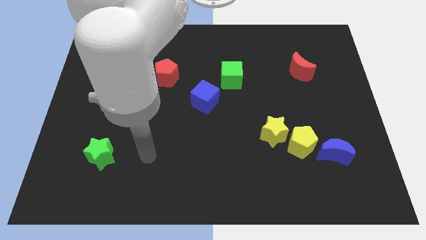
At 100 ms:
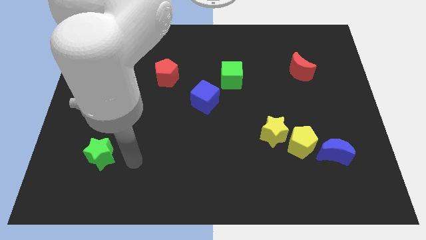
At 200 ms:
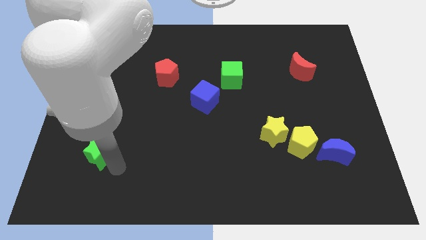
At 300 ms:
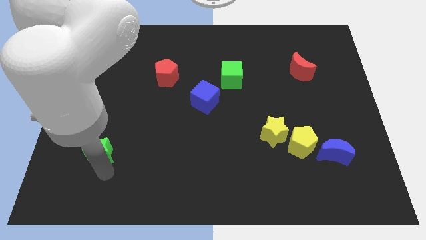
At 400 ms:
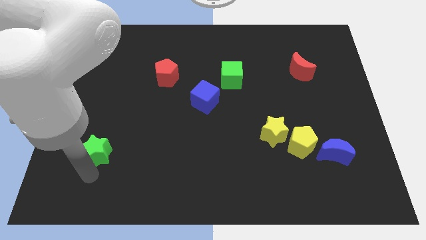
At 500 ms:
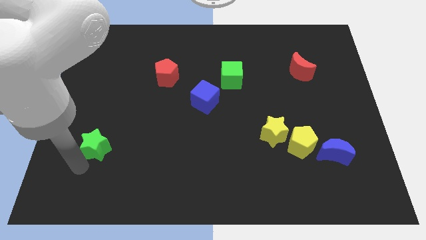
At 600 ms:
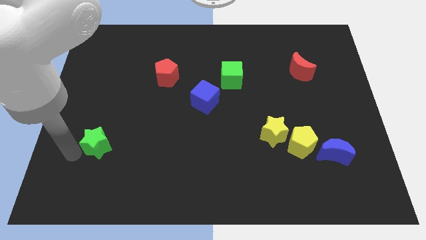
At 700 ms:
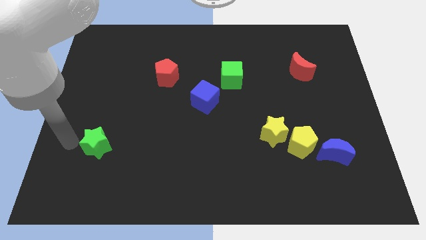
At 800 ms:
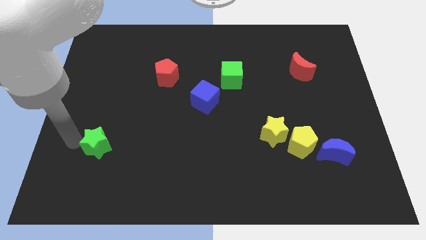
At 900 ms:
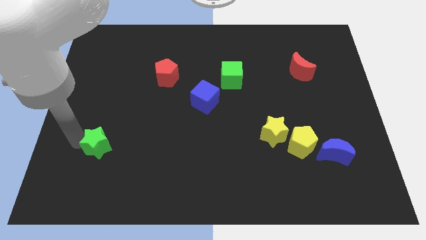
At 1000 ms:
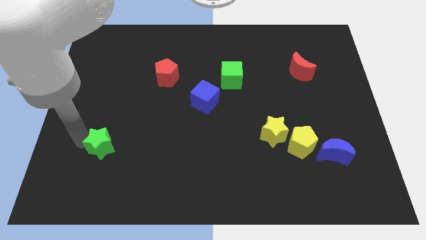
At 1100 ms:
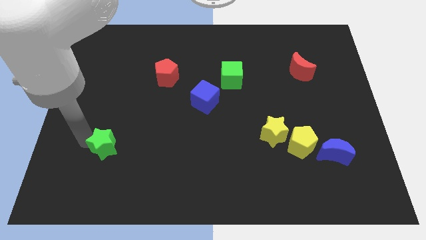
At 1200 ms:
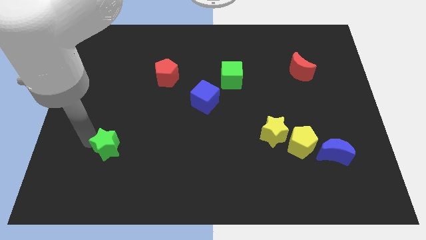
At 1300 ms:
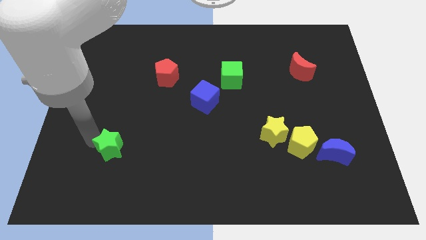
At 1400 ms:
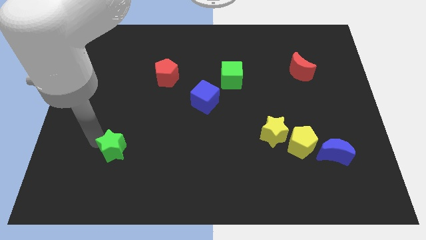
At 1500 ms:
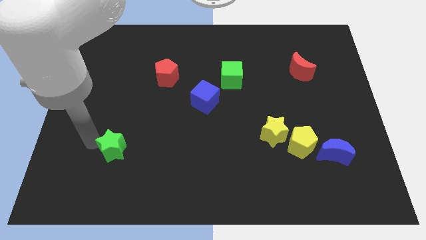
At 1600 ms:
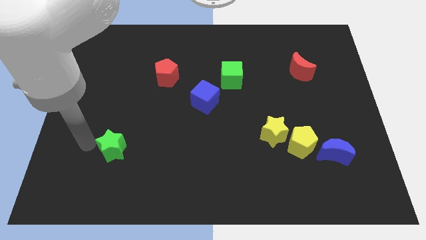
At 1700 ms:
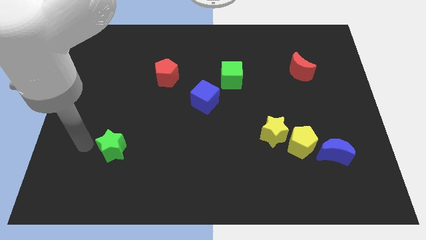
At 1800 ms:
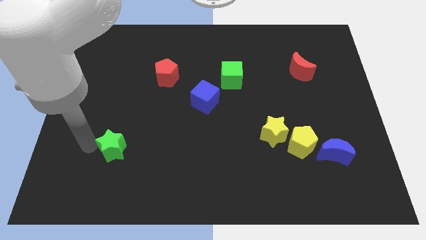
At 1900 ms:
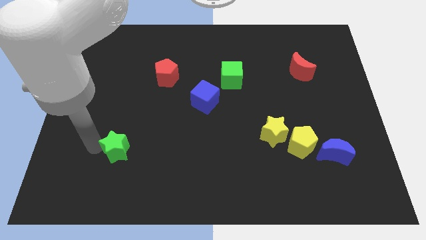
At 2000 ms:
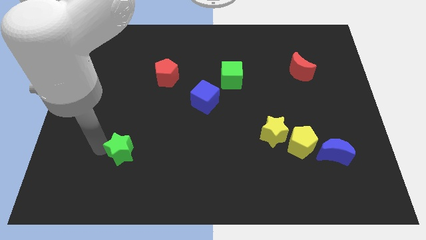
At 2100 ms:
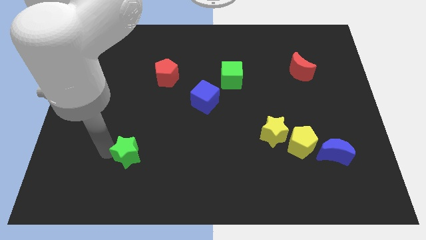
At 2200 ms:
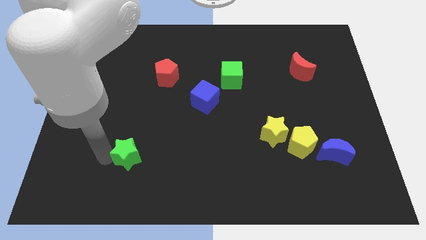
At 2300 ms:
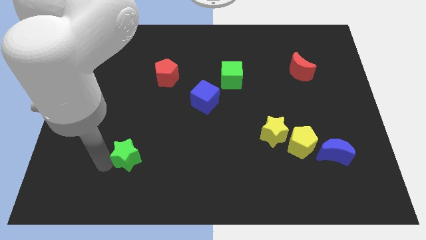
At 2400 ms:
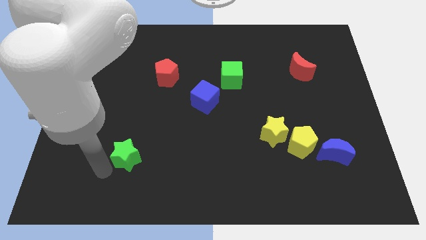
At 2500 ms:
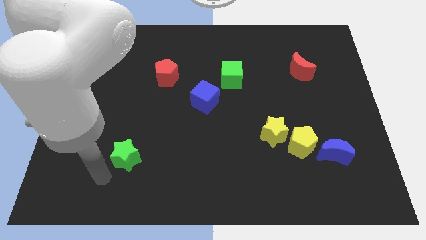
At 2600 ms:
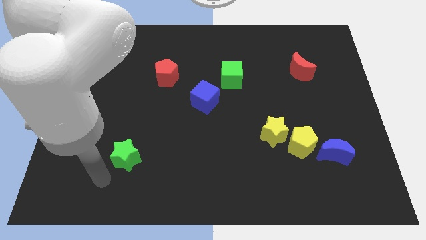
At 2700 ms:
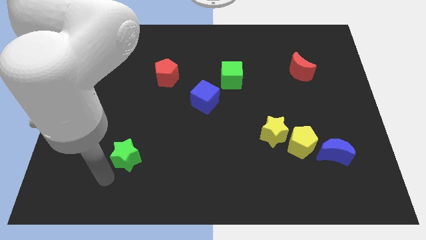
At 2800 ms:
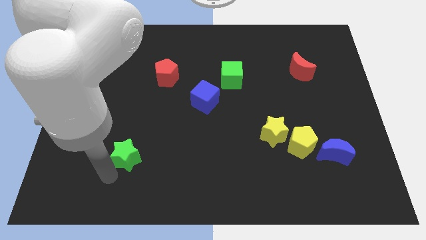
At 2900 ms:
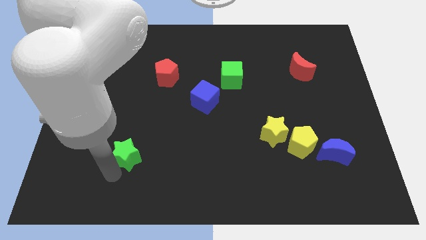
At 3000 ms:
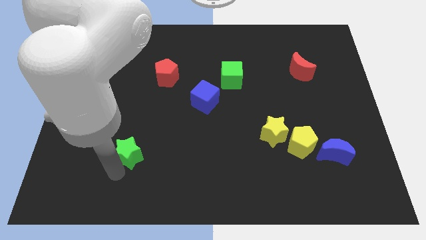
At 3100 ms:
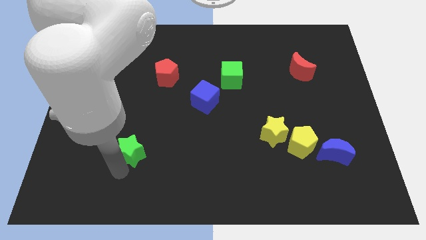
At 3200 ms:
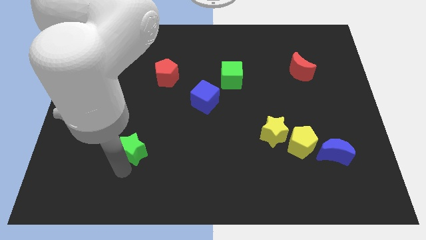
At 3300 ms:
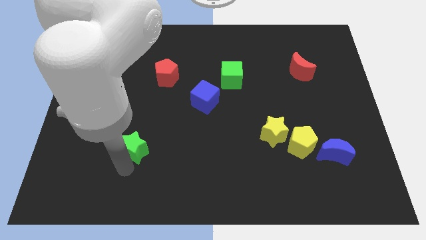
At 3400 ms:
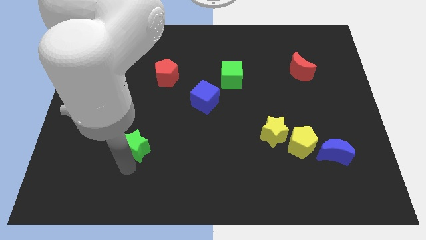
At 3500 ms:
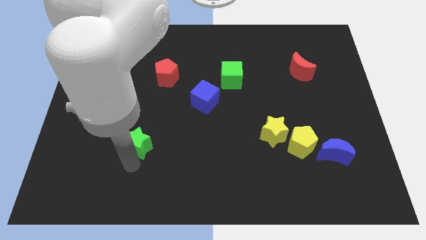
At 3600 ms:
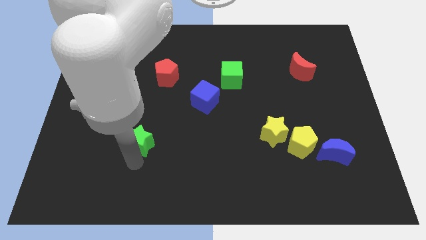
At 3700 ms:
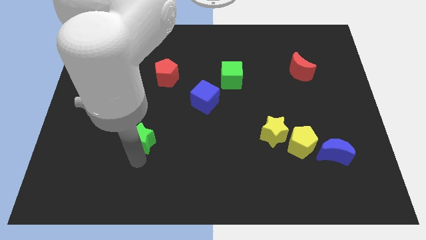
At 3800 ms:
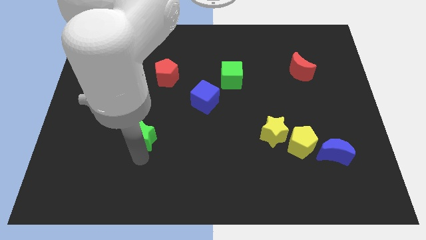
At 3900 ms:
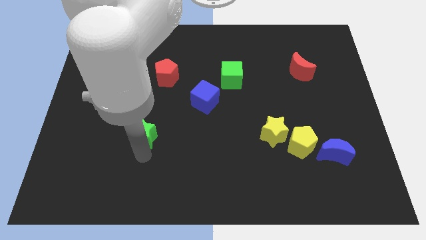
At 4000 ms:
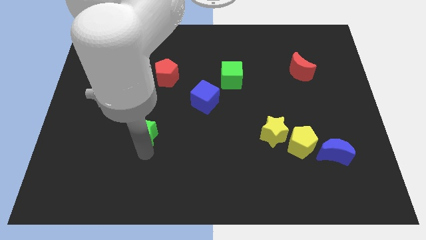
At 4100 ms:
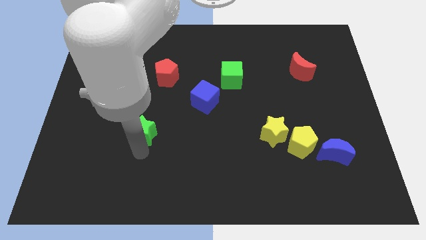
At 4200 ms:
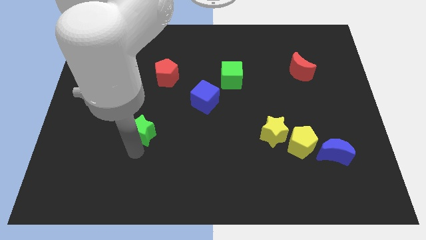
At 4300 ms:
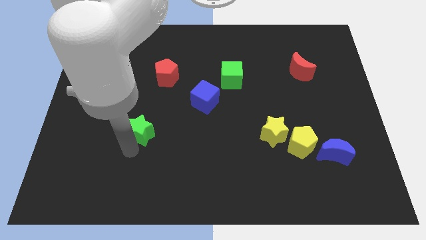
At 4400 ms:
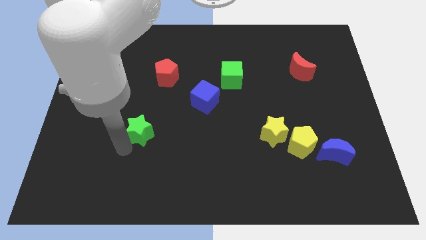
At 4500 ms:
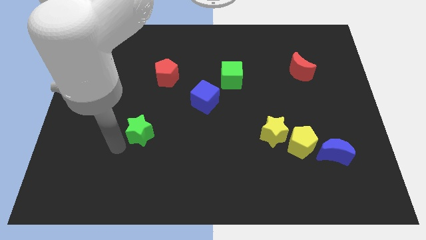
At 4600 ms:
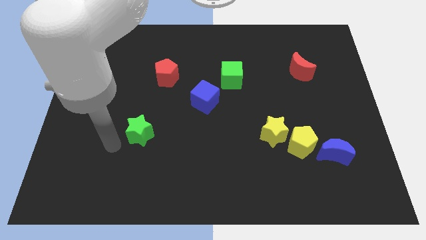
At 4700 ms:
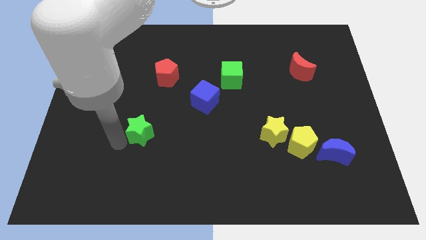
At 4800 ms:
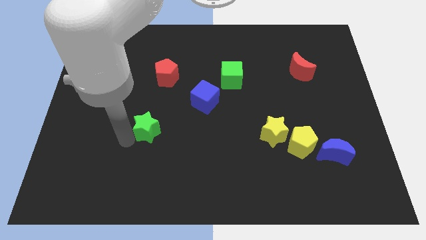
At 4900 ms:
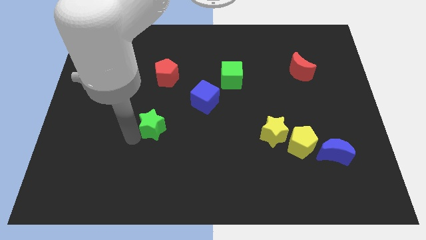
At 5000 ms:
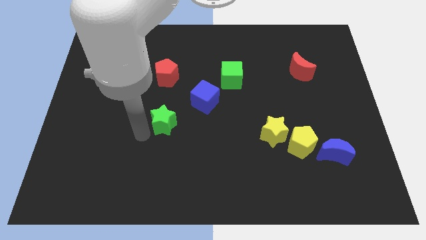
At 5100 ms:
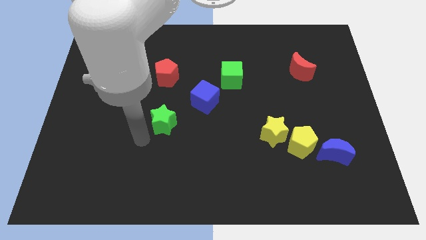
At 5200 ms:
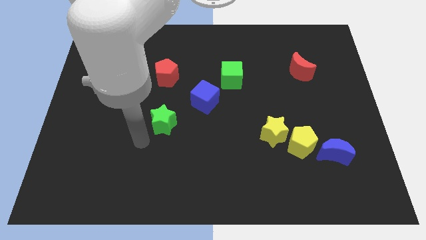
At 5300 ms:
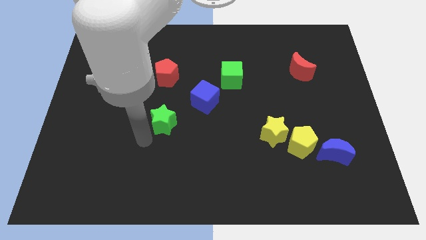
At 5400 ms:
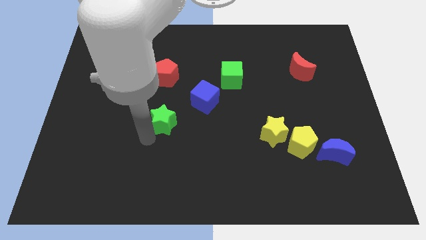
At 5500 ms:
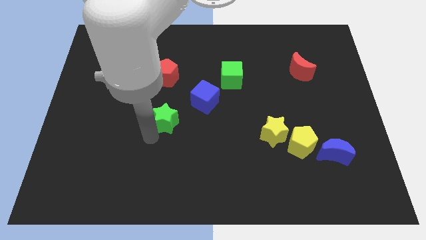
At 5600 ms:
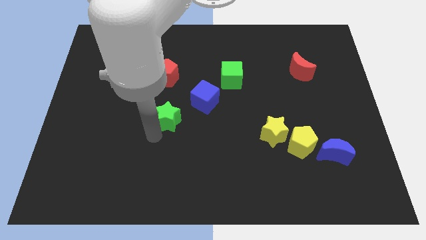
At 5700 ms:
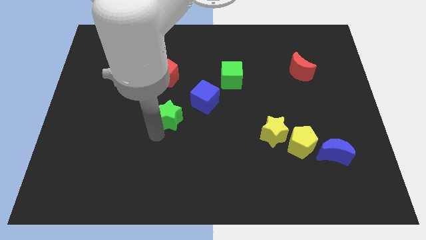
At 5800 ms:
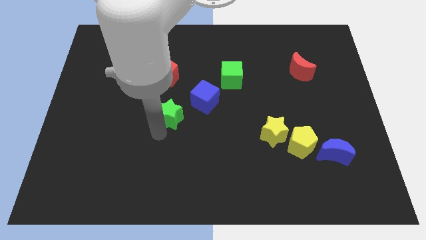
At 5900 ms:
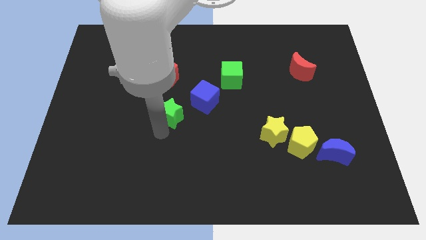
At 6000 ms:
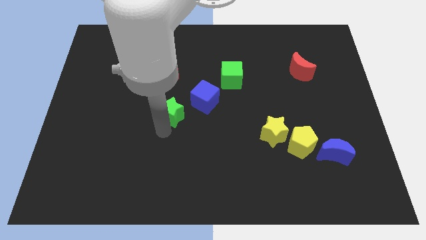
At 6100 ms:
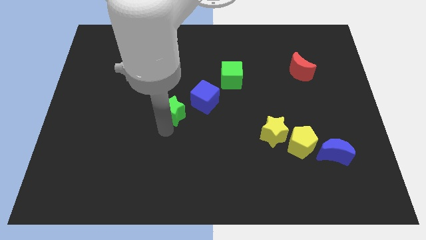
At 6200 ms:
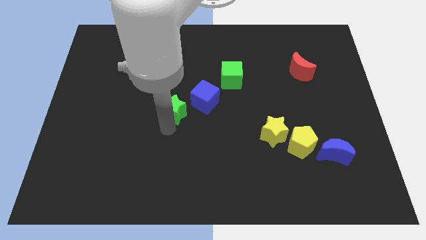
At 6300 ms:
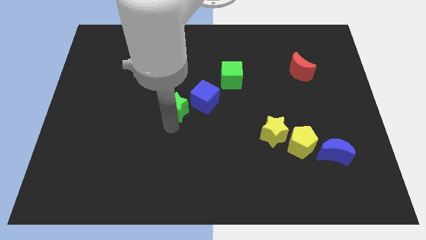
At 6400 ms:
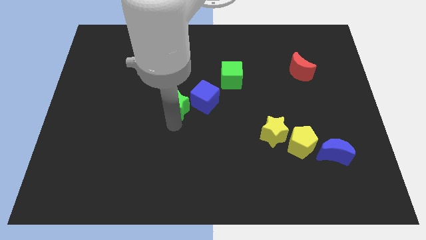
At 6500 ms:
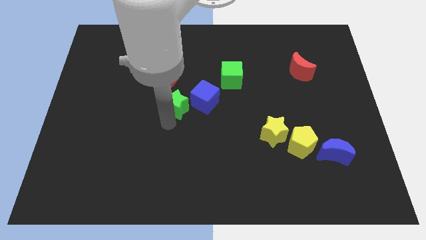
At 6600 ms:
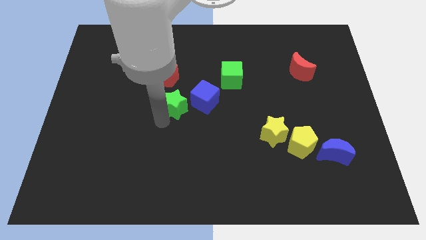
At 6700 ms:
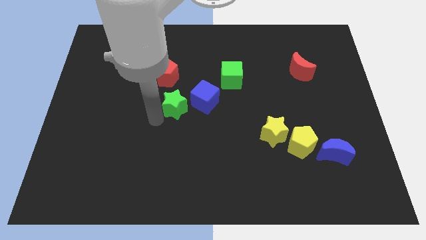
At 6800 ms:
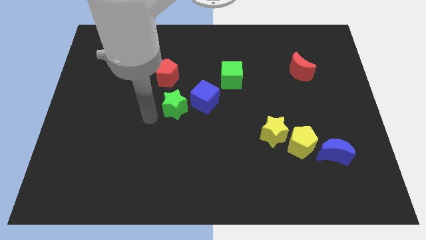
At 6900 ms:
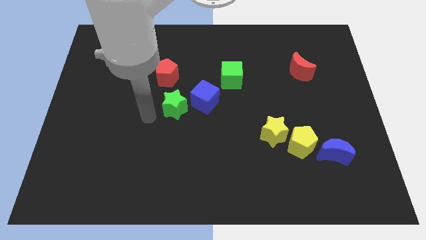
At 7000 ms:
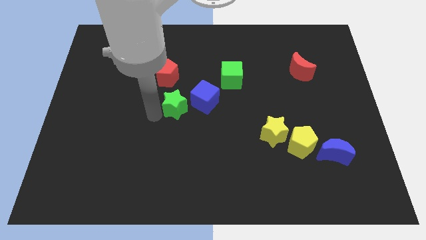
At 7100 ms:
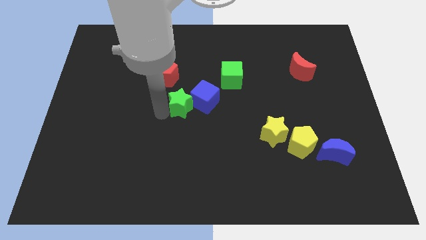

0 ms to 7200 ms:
put the green star towards the blue cube

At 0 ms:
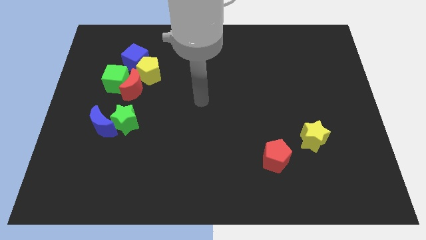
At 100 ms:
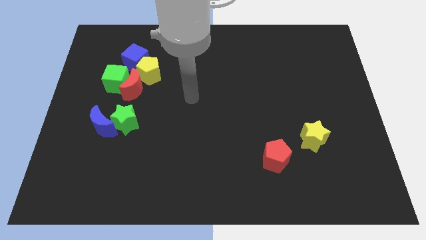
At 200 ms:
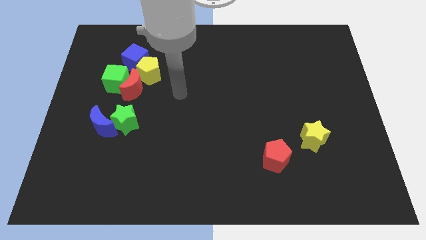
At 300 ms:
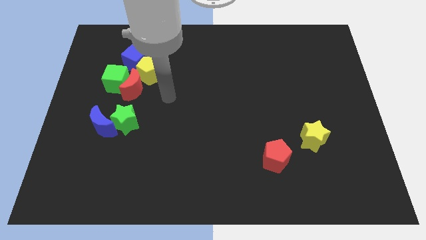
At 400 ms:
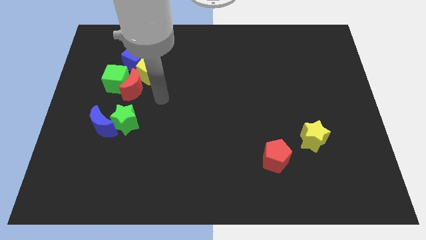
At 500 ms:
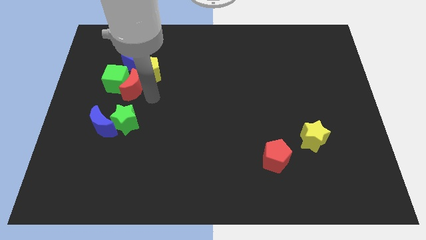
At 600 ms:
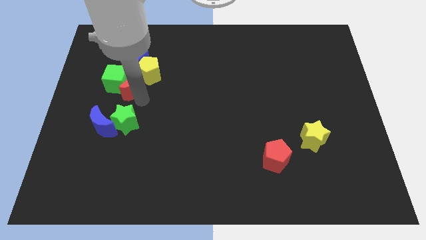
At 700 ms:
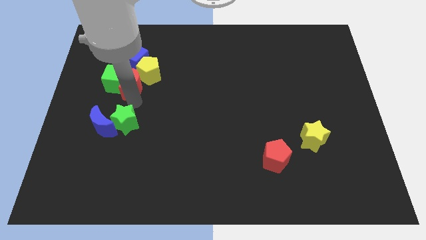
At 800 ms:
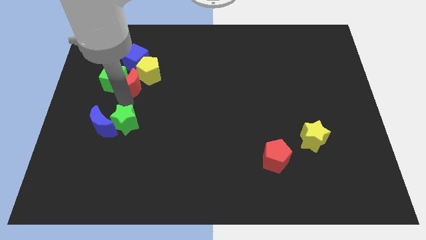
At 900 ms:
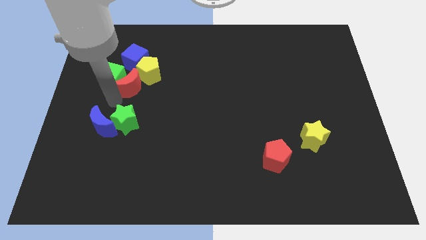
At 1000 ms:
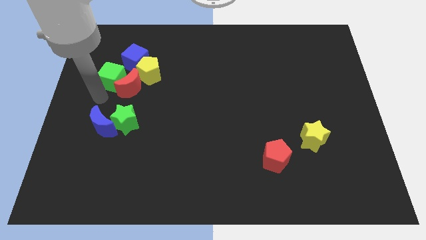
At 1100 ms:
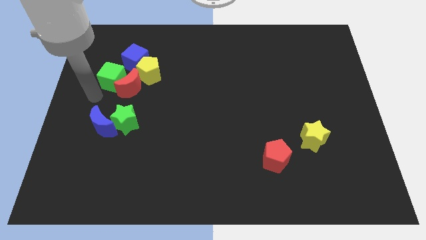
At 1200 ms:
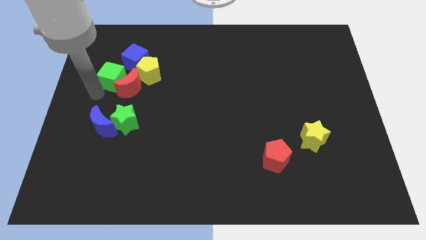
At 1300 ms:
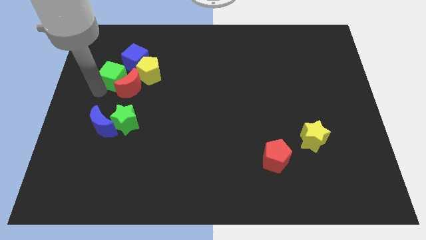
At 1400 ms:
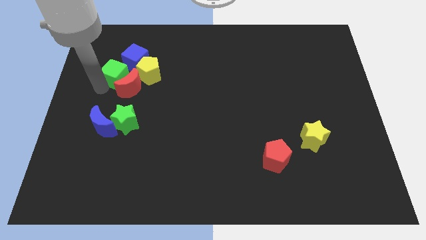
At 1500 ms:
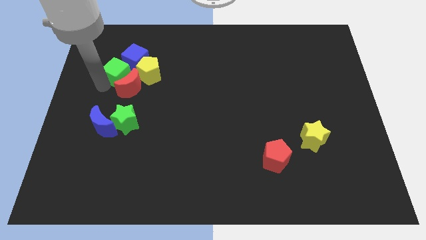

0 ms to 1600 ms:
put the green cube next to the blue cube
